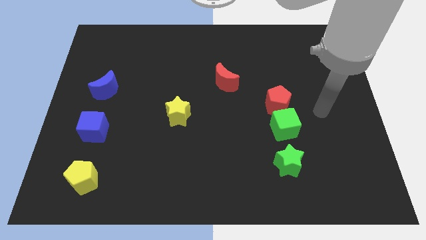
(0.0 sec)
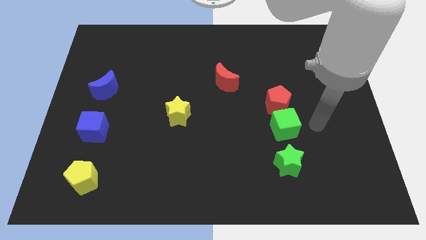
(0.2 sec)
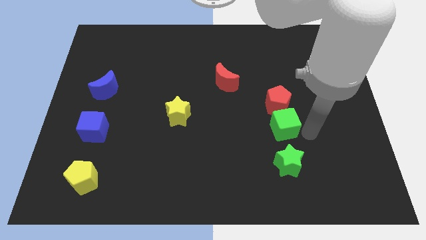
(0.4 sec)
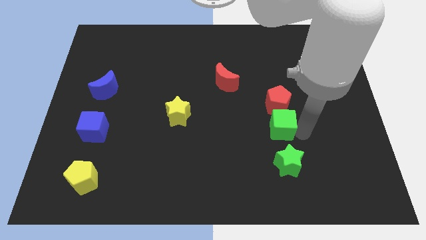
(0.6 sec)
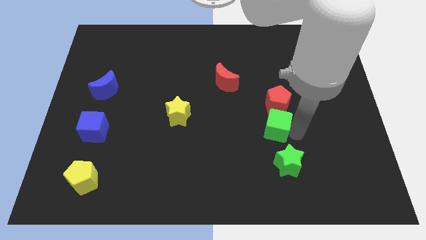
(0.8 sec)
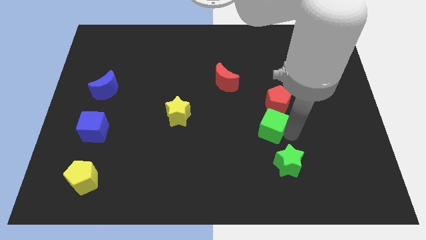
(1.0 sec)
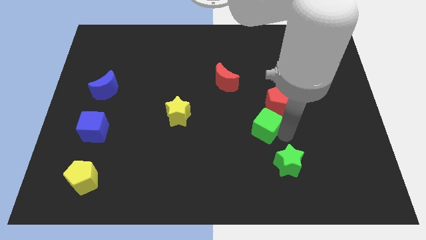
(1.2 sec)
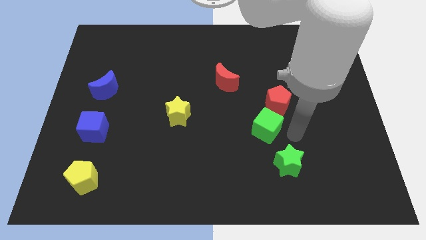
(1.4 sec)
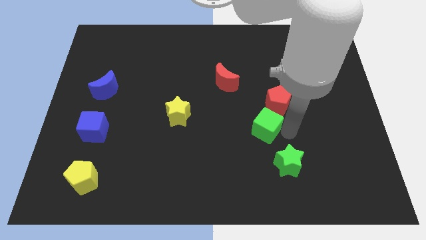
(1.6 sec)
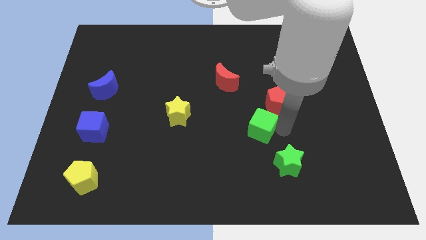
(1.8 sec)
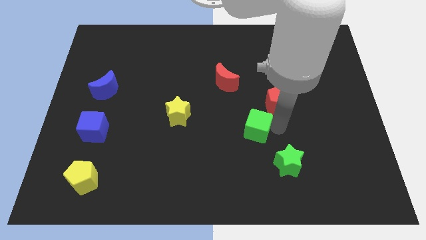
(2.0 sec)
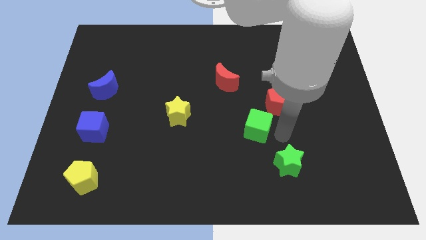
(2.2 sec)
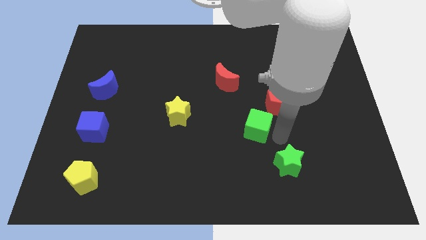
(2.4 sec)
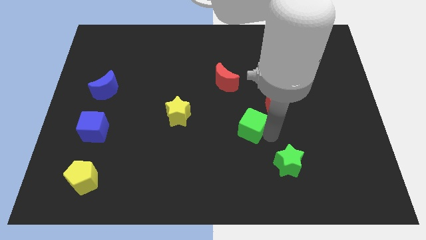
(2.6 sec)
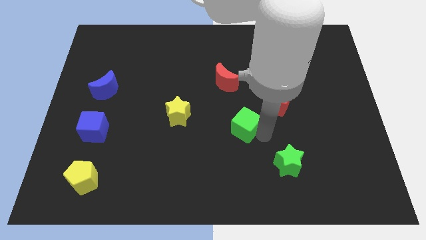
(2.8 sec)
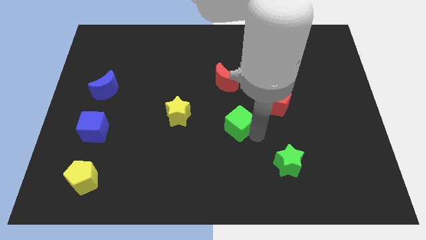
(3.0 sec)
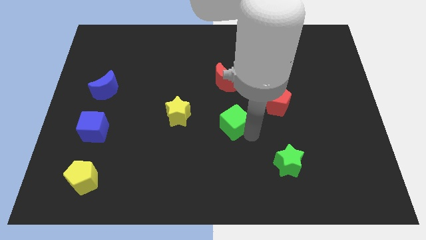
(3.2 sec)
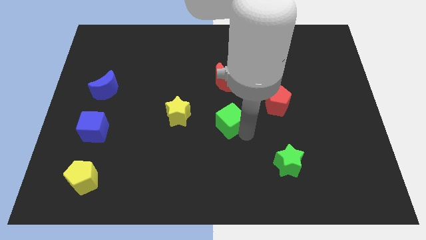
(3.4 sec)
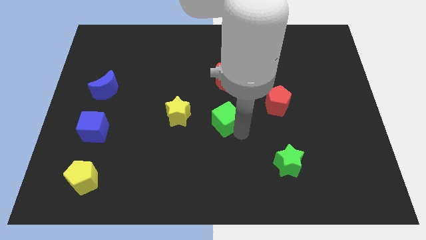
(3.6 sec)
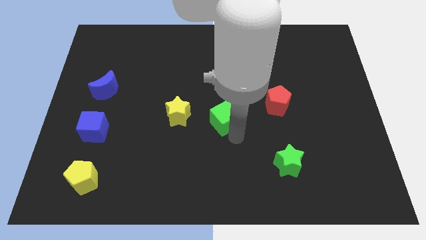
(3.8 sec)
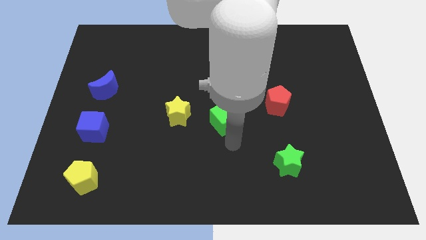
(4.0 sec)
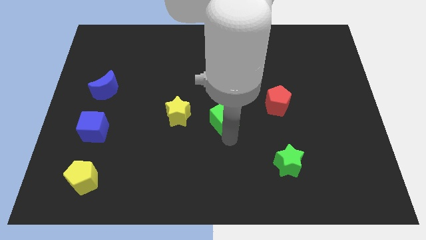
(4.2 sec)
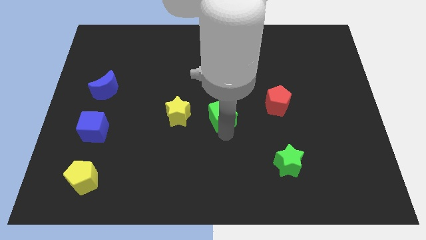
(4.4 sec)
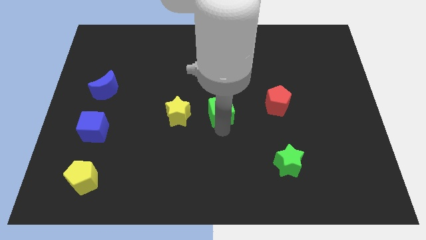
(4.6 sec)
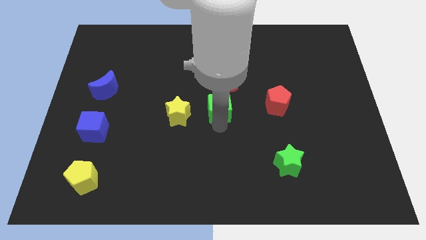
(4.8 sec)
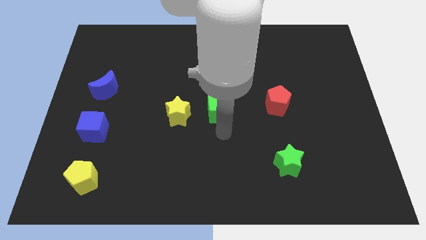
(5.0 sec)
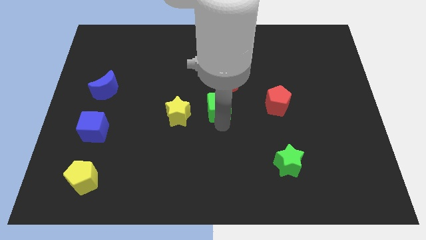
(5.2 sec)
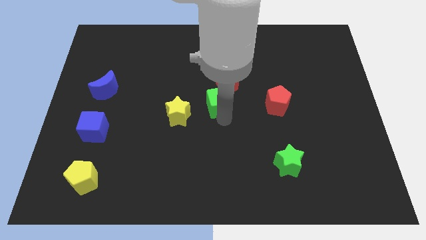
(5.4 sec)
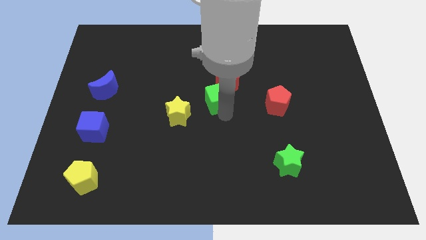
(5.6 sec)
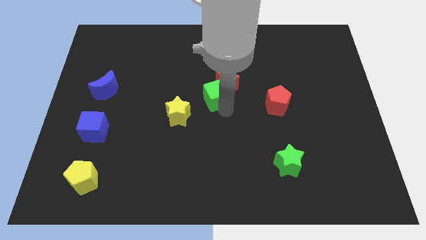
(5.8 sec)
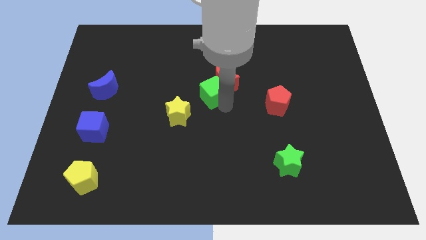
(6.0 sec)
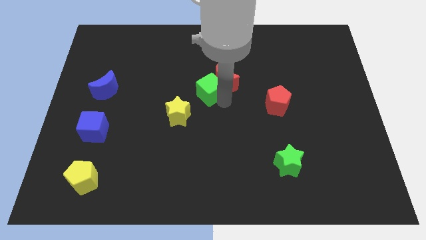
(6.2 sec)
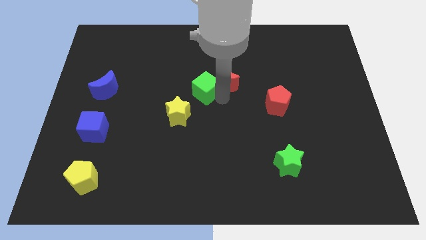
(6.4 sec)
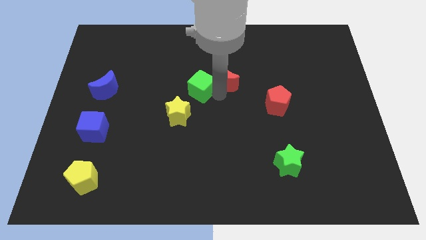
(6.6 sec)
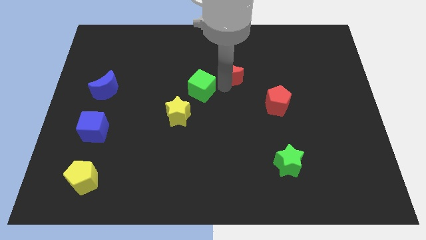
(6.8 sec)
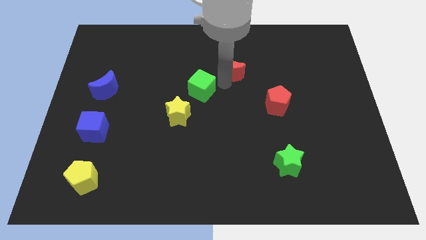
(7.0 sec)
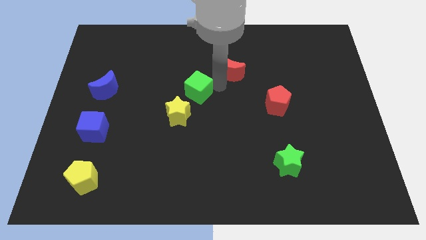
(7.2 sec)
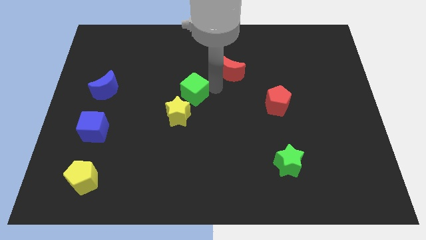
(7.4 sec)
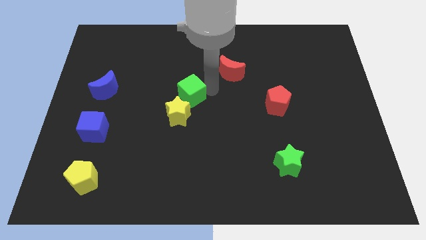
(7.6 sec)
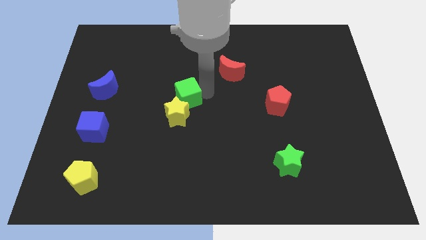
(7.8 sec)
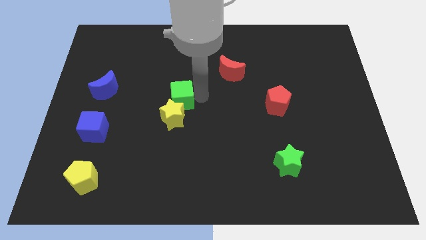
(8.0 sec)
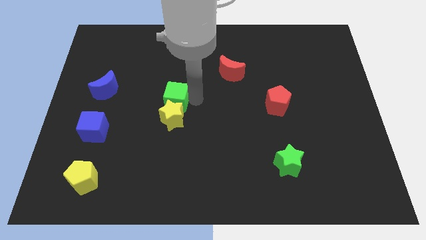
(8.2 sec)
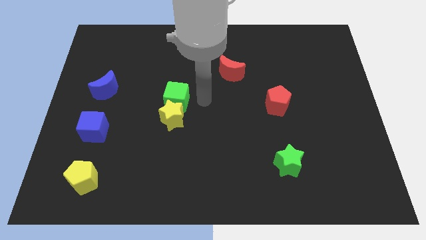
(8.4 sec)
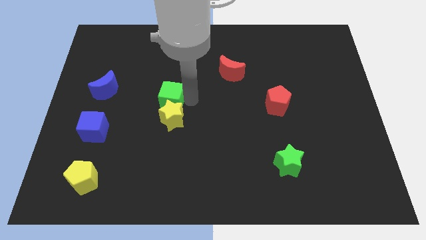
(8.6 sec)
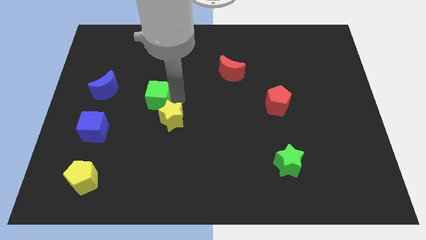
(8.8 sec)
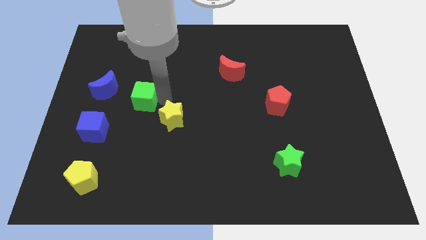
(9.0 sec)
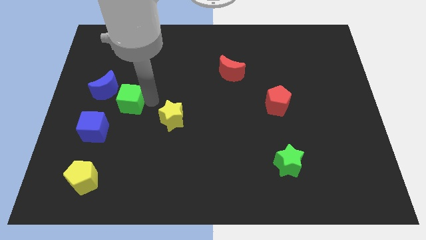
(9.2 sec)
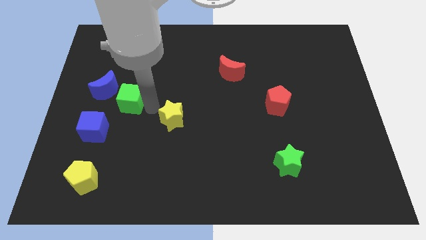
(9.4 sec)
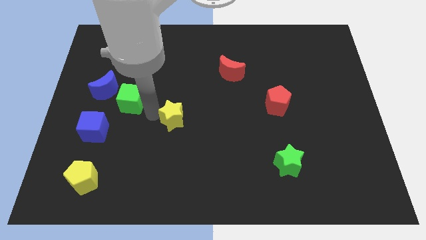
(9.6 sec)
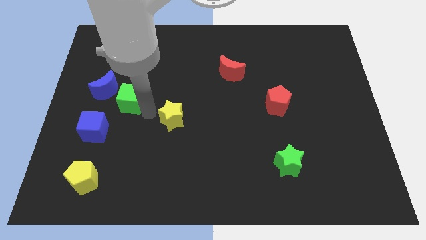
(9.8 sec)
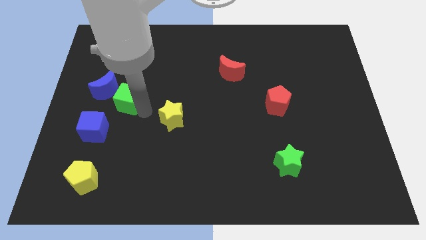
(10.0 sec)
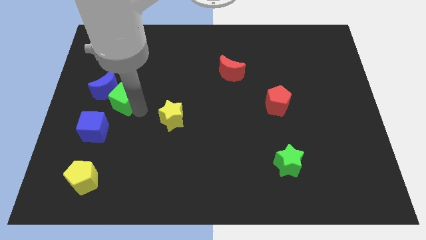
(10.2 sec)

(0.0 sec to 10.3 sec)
push the green cube close to the blue moon

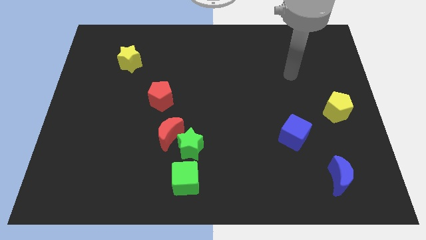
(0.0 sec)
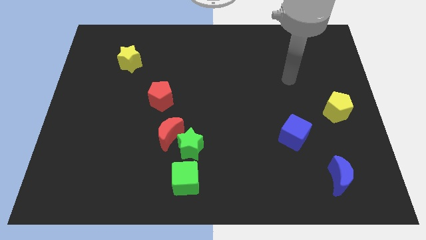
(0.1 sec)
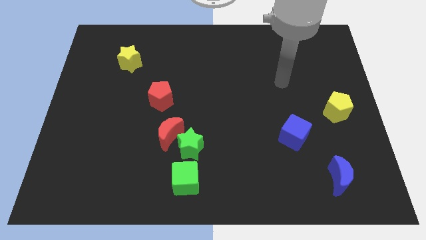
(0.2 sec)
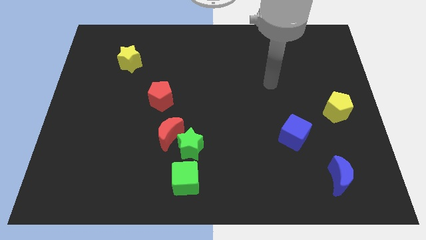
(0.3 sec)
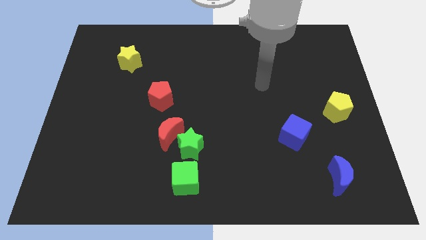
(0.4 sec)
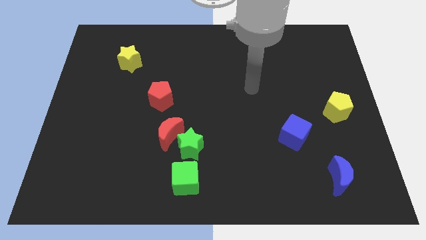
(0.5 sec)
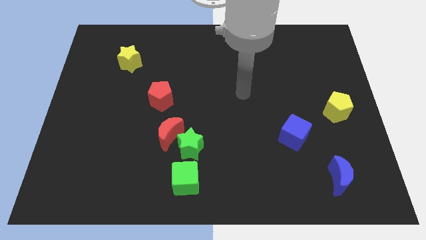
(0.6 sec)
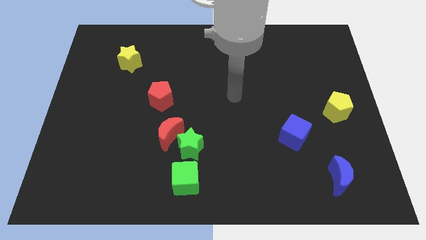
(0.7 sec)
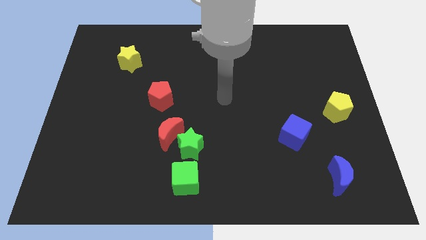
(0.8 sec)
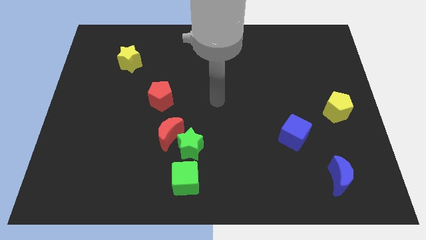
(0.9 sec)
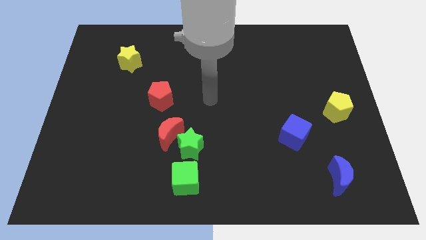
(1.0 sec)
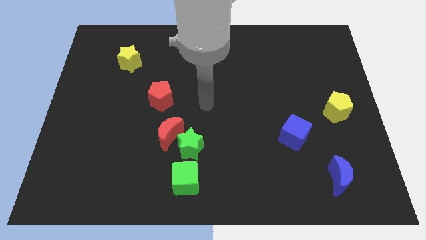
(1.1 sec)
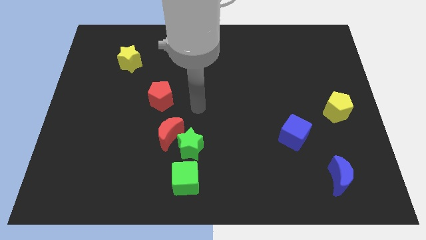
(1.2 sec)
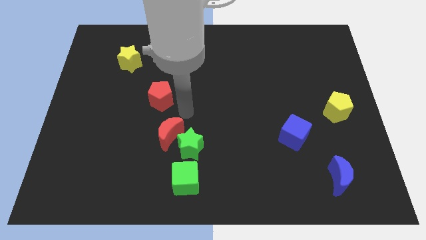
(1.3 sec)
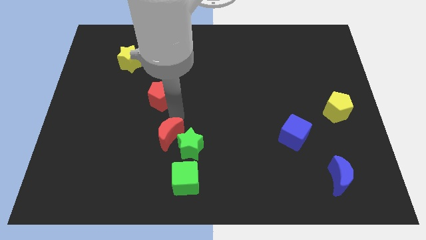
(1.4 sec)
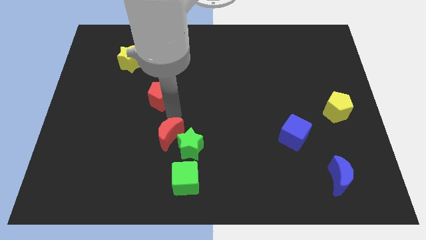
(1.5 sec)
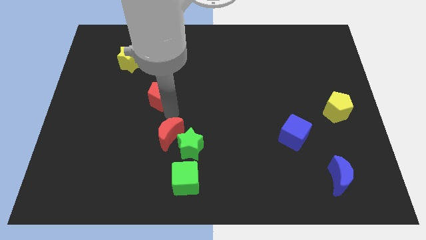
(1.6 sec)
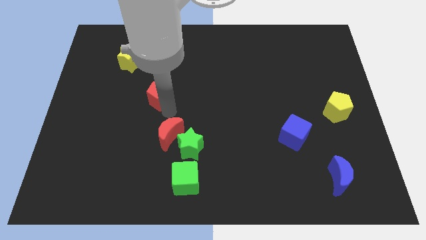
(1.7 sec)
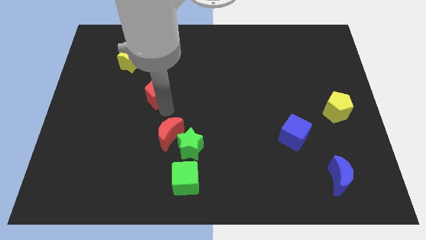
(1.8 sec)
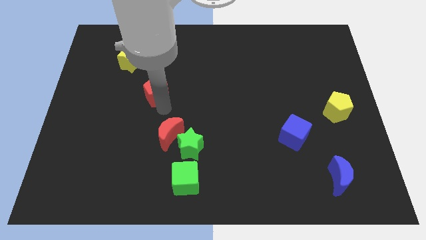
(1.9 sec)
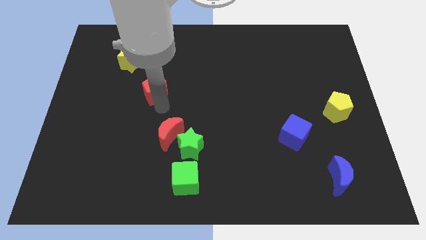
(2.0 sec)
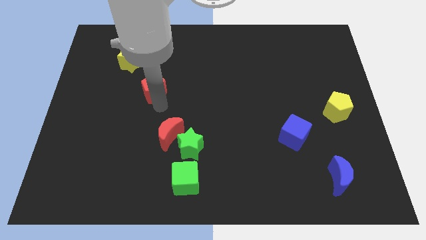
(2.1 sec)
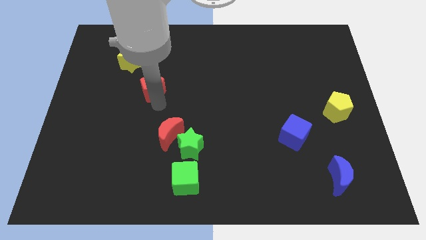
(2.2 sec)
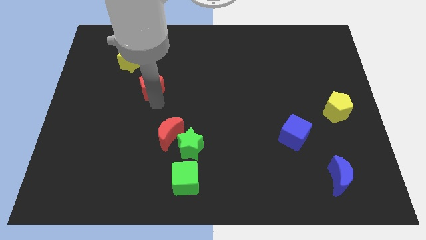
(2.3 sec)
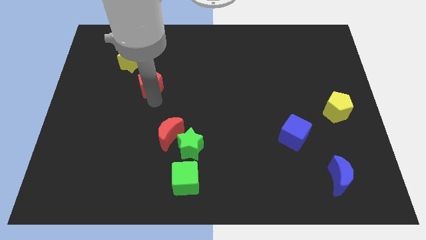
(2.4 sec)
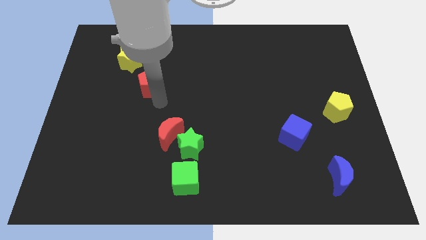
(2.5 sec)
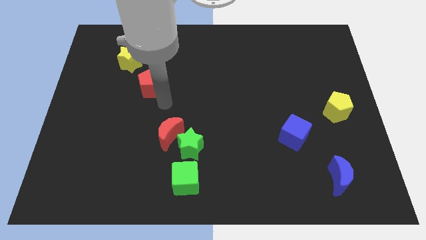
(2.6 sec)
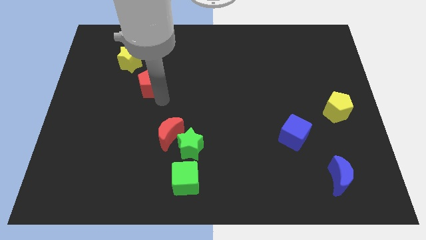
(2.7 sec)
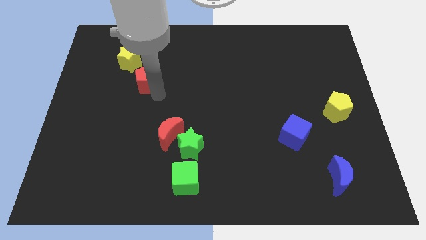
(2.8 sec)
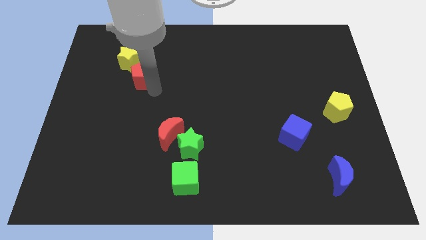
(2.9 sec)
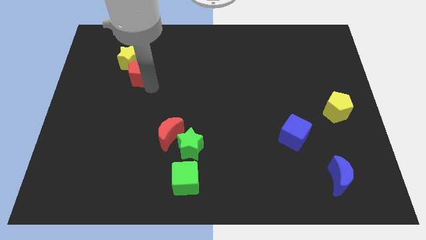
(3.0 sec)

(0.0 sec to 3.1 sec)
move the red pentagon close to the yellow star
